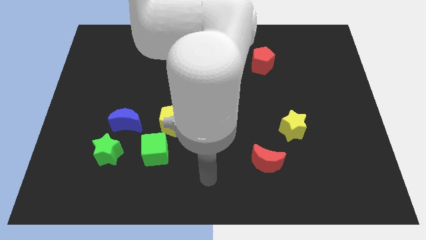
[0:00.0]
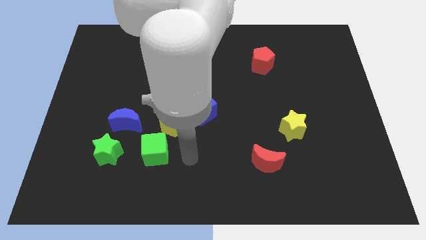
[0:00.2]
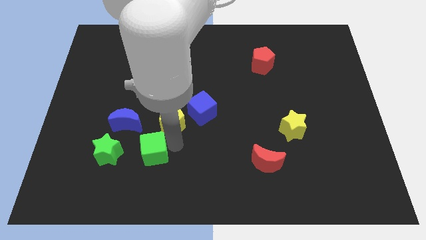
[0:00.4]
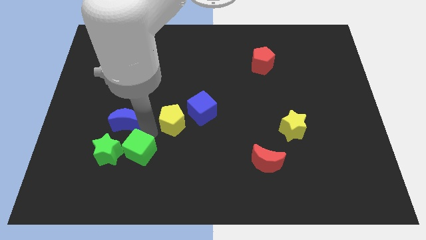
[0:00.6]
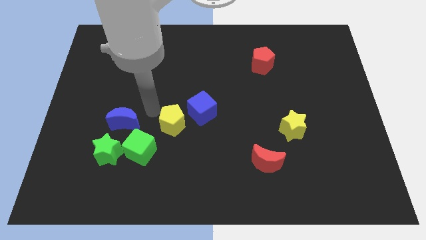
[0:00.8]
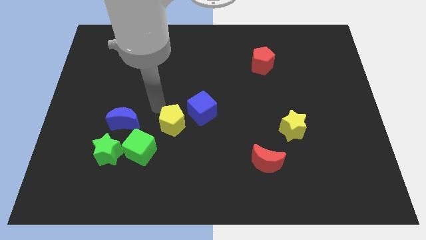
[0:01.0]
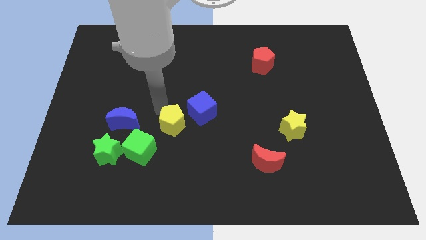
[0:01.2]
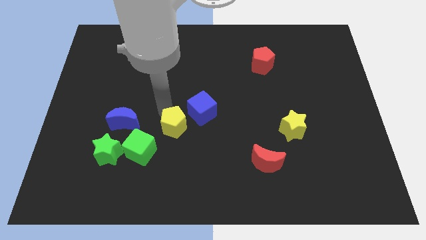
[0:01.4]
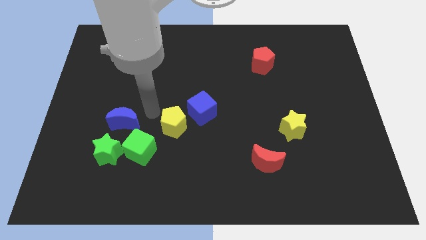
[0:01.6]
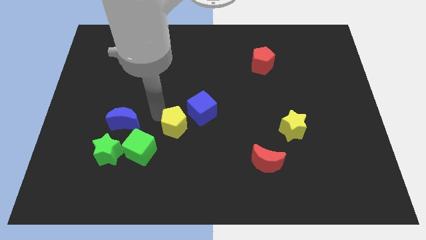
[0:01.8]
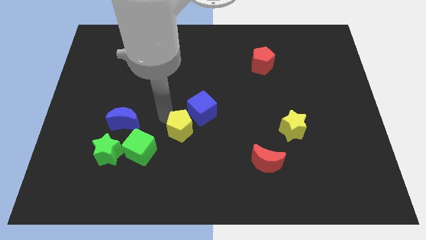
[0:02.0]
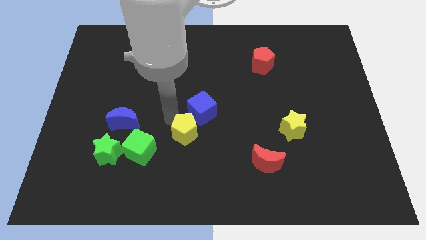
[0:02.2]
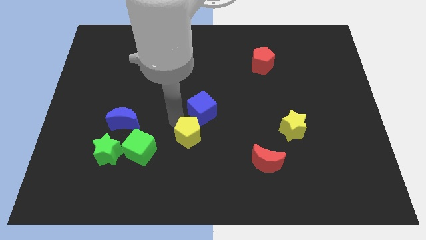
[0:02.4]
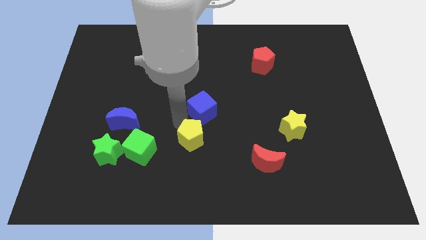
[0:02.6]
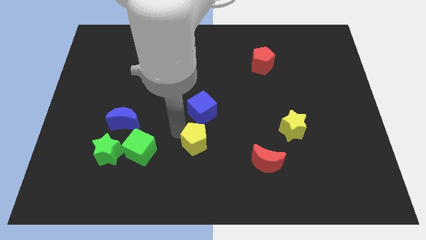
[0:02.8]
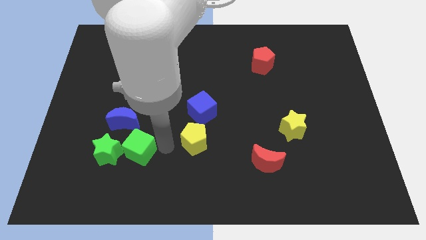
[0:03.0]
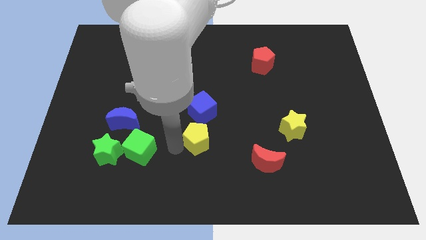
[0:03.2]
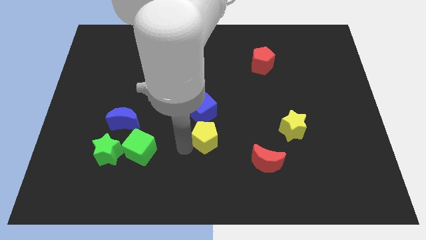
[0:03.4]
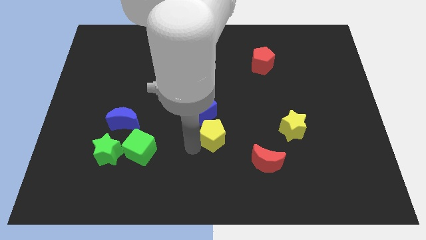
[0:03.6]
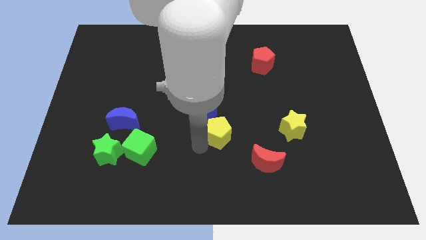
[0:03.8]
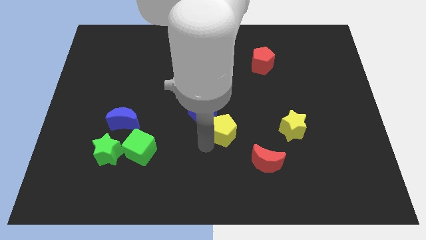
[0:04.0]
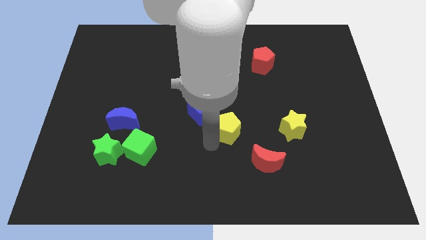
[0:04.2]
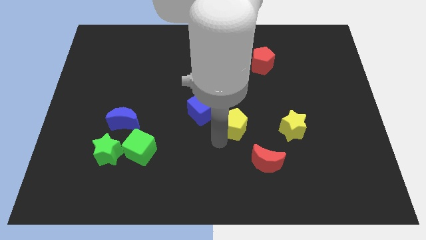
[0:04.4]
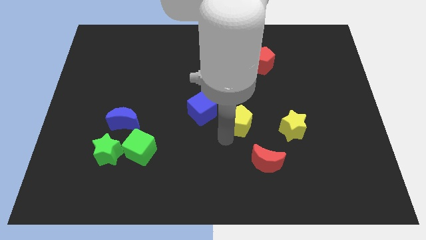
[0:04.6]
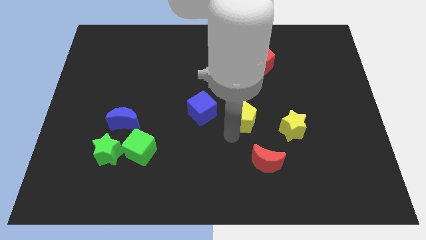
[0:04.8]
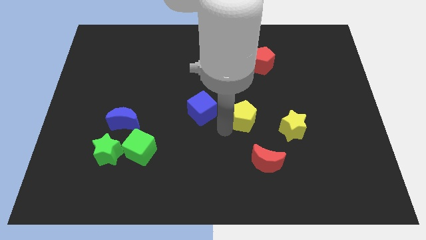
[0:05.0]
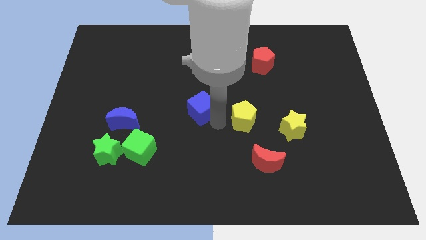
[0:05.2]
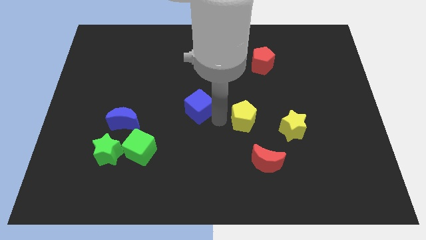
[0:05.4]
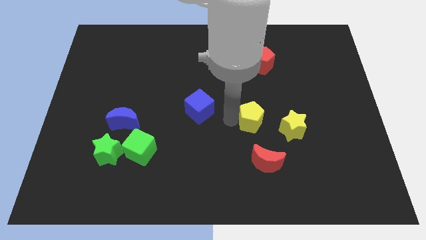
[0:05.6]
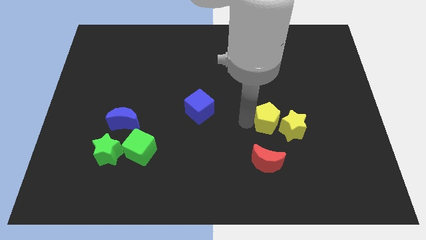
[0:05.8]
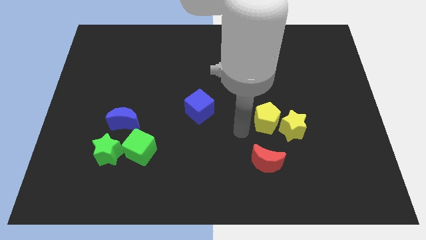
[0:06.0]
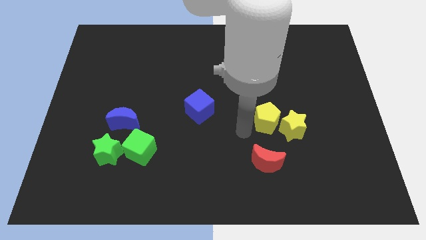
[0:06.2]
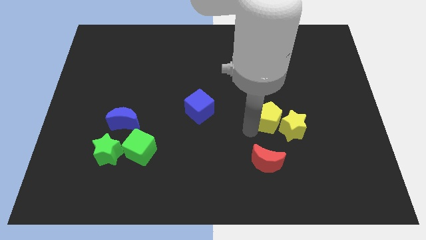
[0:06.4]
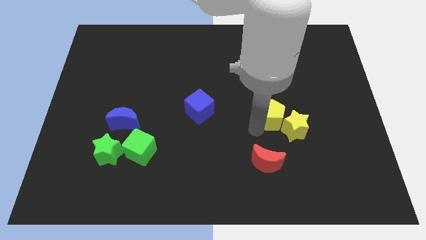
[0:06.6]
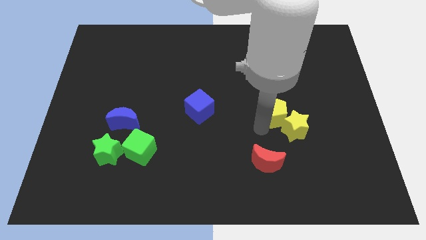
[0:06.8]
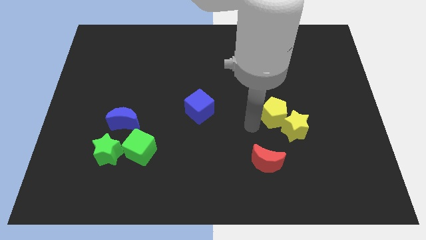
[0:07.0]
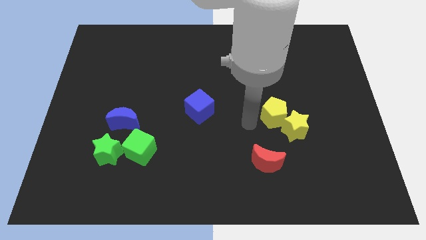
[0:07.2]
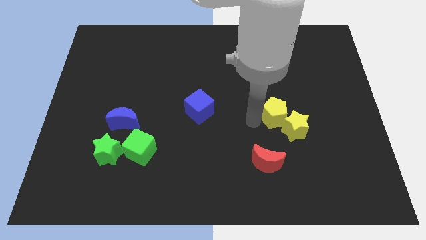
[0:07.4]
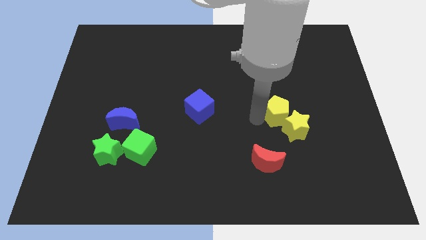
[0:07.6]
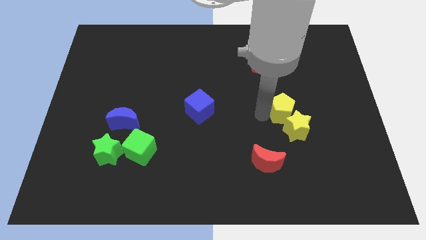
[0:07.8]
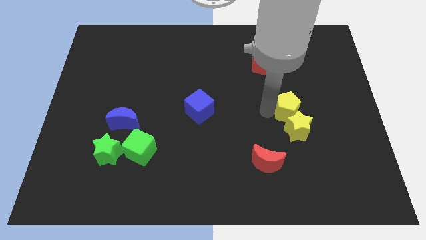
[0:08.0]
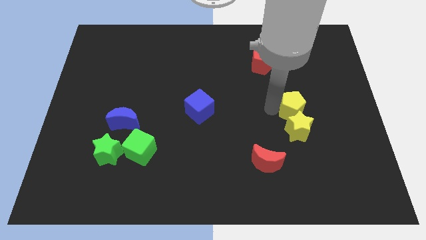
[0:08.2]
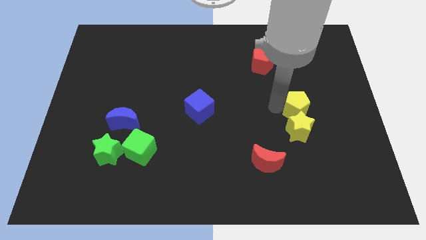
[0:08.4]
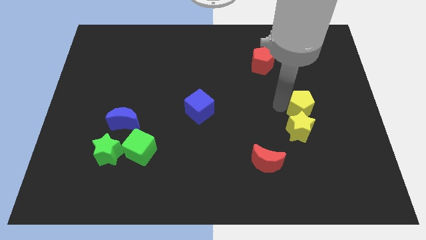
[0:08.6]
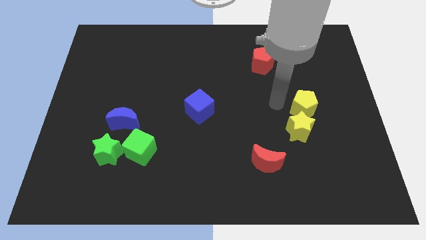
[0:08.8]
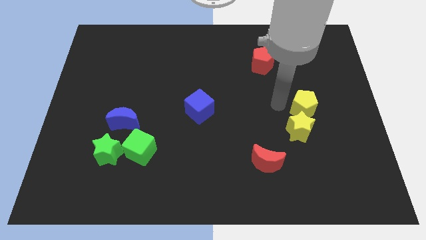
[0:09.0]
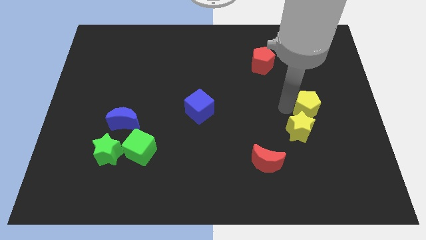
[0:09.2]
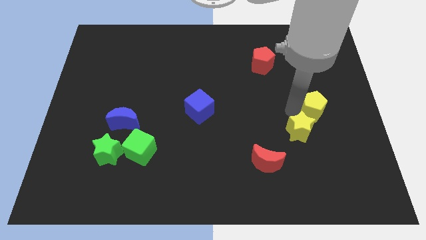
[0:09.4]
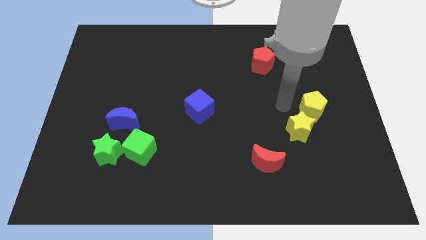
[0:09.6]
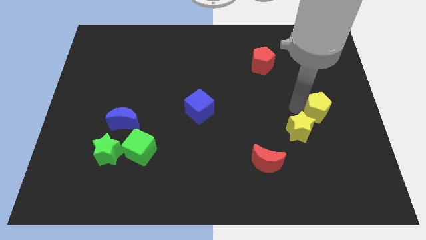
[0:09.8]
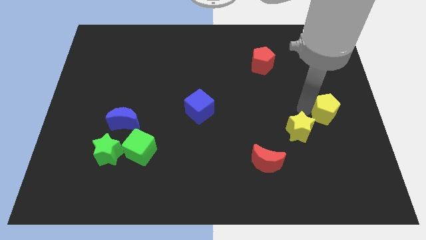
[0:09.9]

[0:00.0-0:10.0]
slide the yellow pentagon to the right side of the board

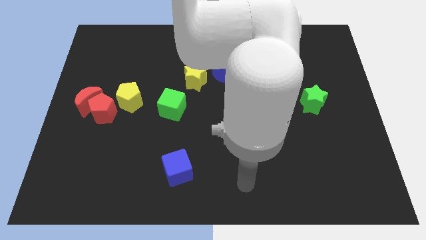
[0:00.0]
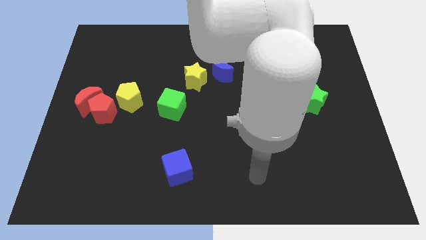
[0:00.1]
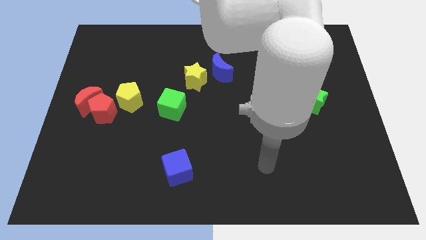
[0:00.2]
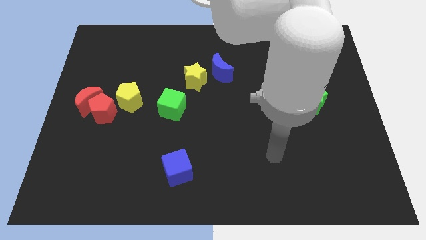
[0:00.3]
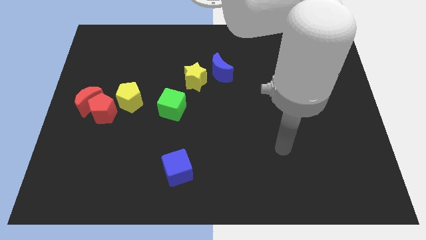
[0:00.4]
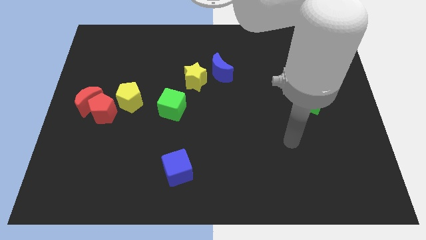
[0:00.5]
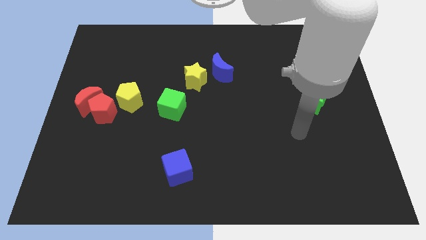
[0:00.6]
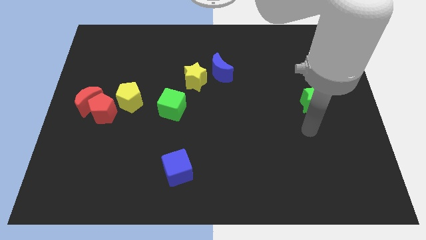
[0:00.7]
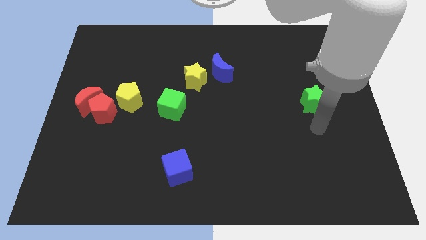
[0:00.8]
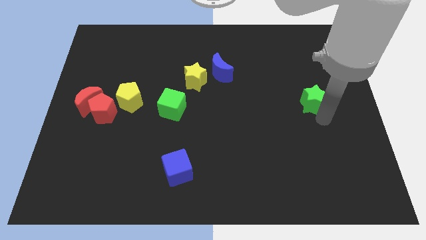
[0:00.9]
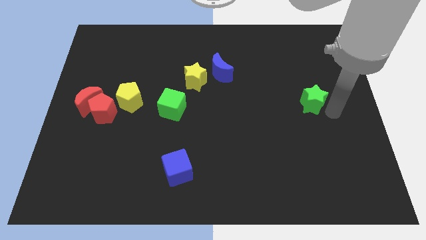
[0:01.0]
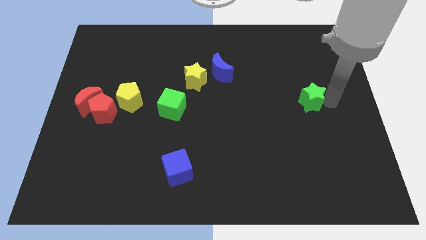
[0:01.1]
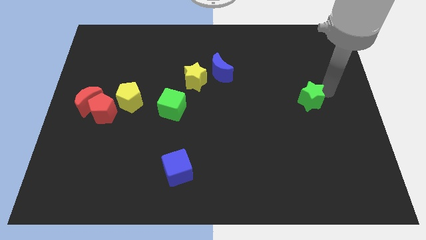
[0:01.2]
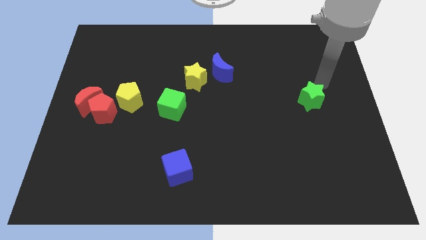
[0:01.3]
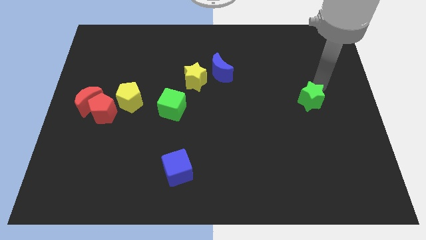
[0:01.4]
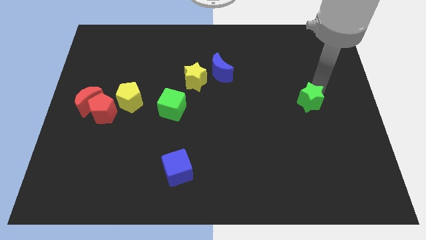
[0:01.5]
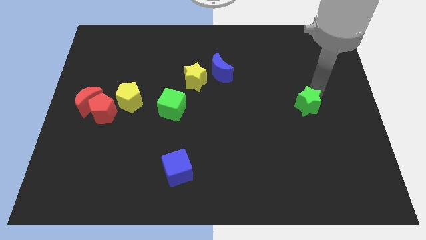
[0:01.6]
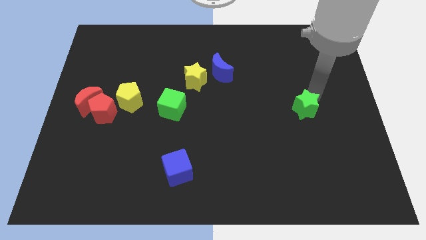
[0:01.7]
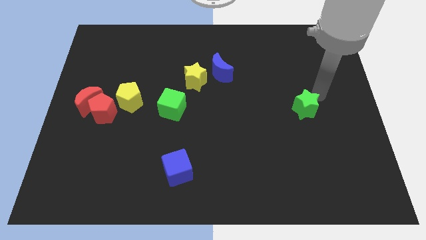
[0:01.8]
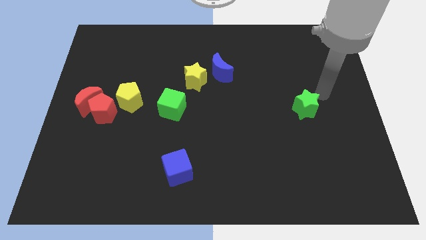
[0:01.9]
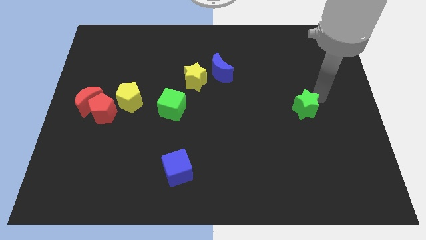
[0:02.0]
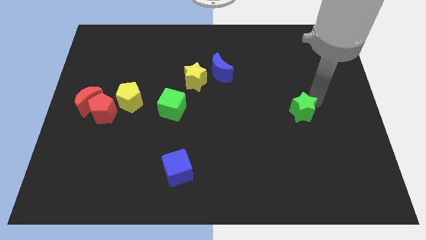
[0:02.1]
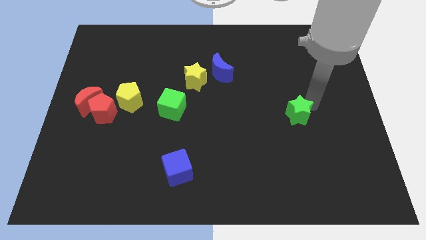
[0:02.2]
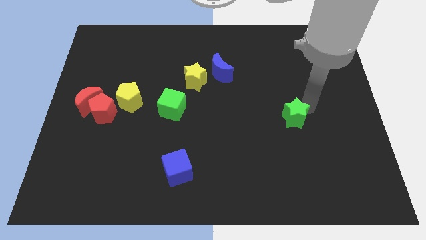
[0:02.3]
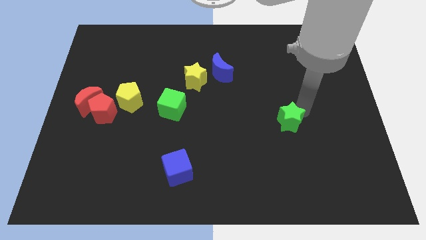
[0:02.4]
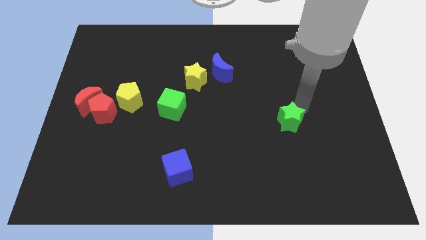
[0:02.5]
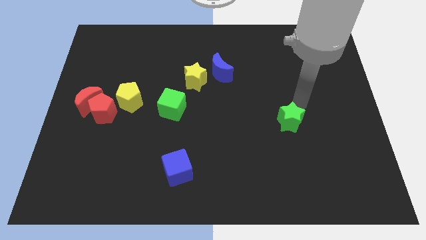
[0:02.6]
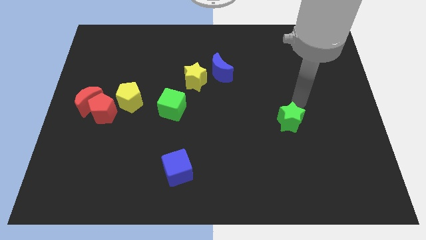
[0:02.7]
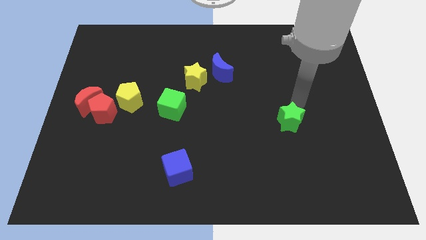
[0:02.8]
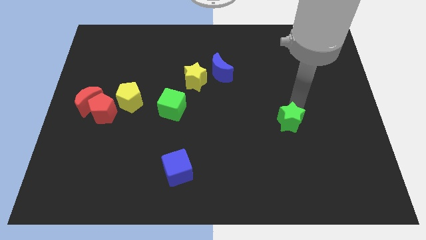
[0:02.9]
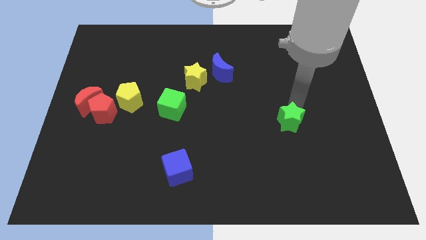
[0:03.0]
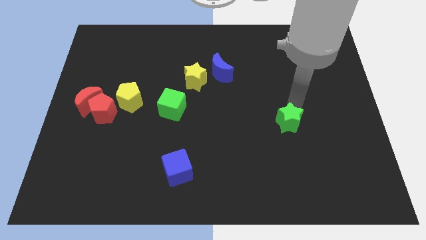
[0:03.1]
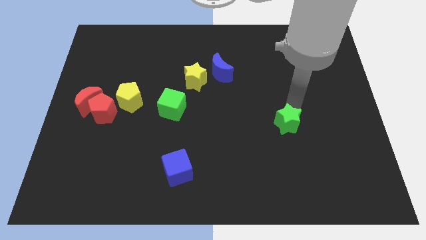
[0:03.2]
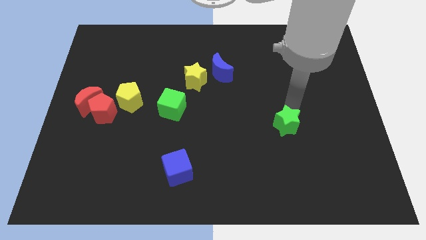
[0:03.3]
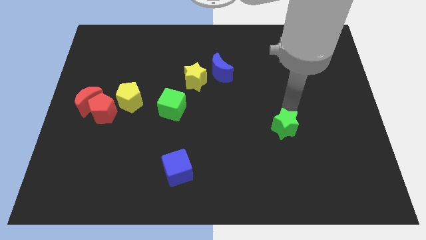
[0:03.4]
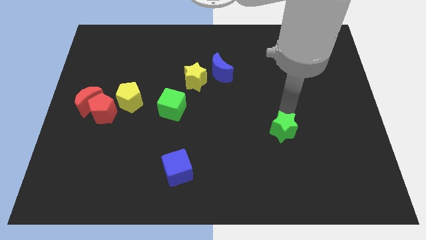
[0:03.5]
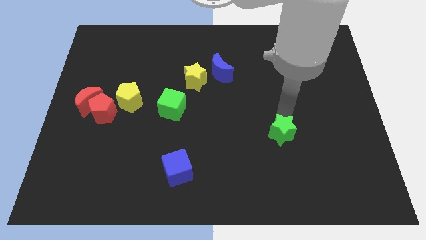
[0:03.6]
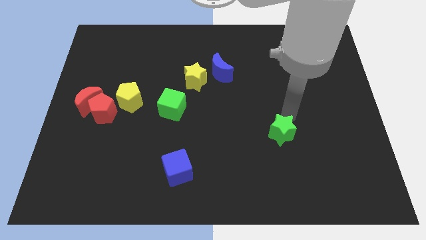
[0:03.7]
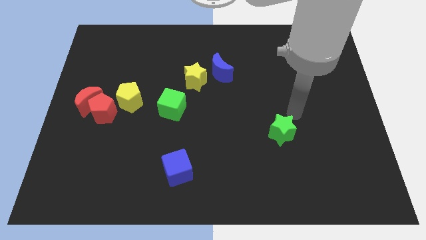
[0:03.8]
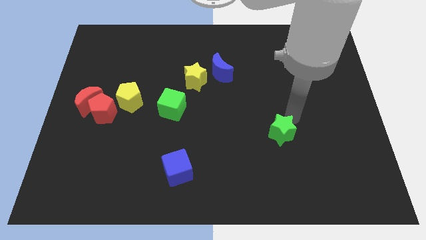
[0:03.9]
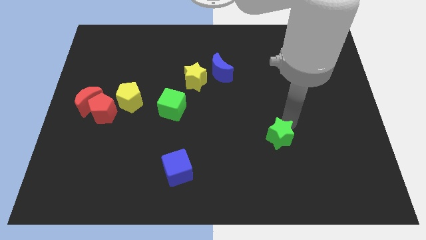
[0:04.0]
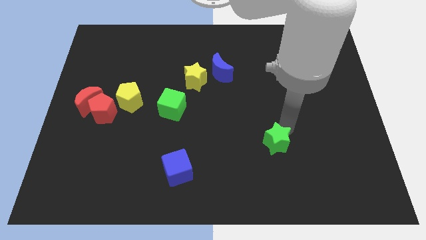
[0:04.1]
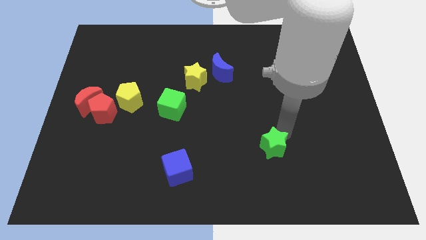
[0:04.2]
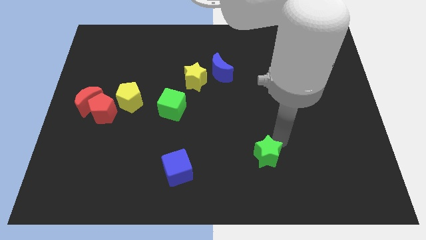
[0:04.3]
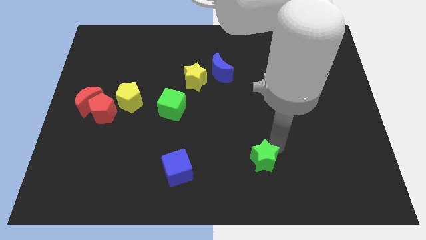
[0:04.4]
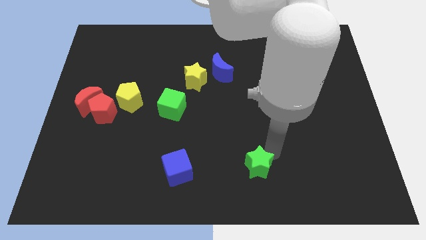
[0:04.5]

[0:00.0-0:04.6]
put the green star to the bottom
